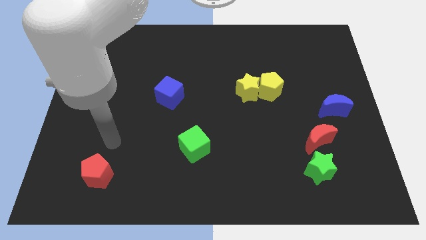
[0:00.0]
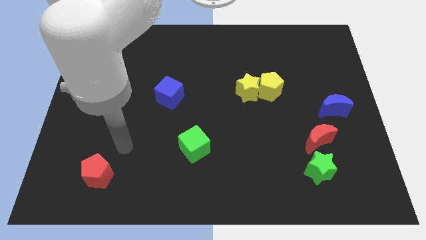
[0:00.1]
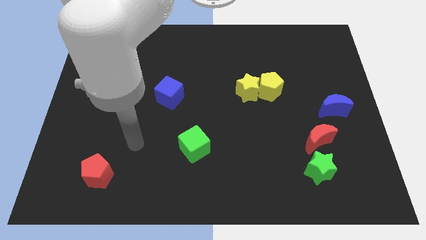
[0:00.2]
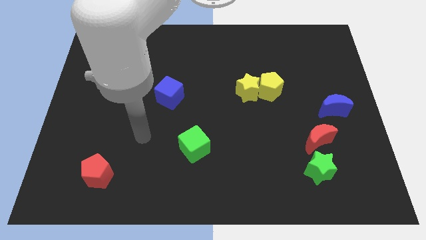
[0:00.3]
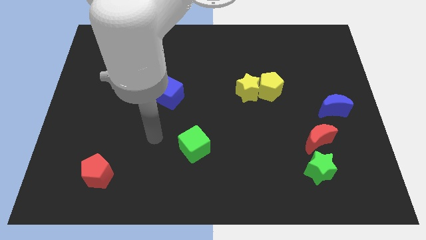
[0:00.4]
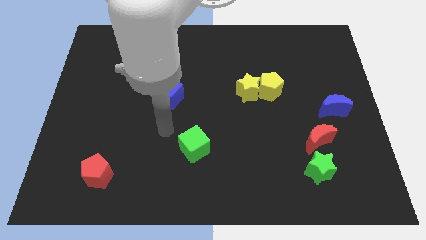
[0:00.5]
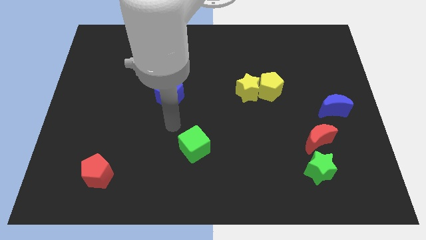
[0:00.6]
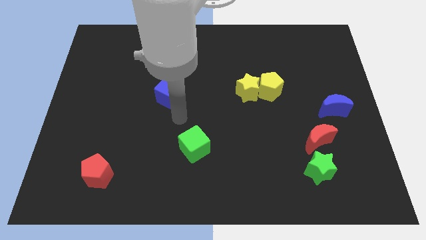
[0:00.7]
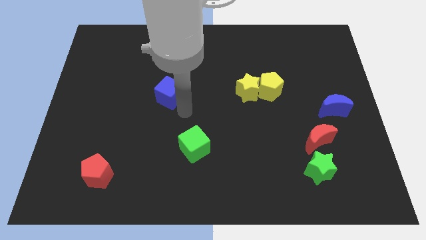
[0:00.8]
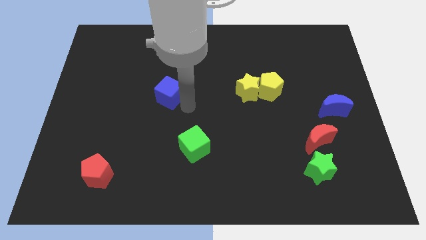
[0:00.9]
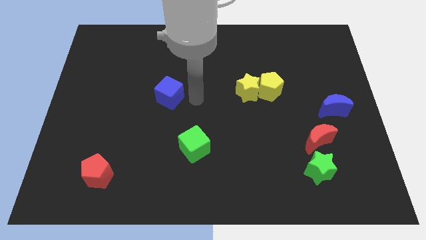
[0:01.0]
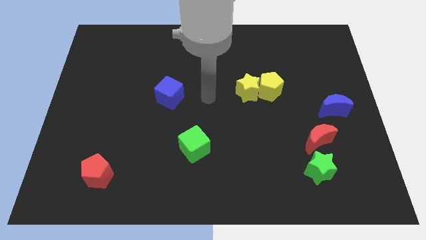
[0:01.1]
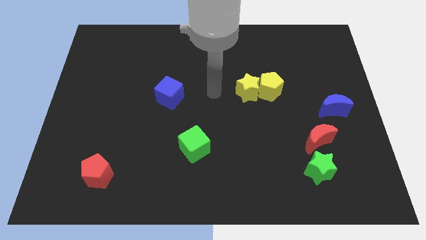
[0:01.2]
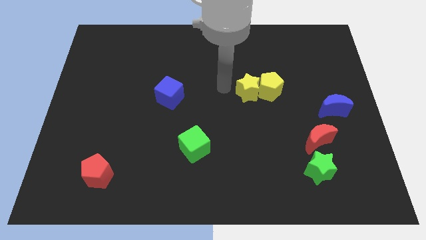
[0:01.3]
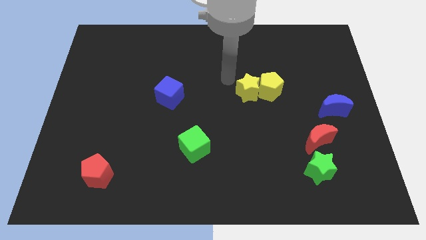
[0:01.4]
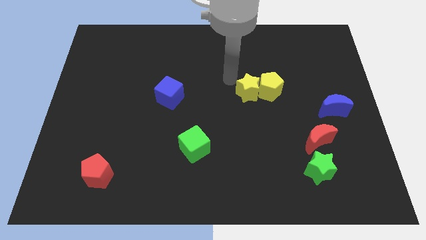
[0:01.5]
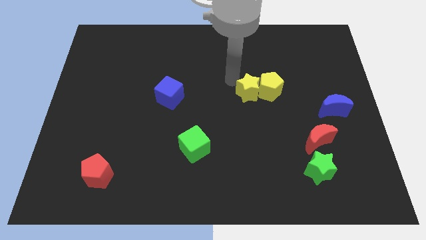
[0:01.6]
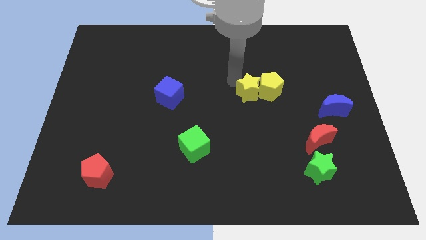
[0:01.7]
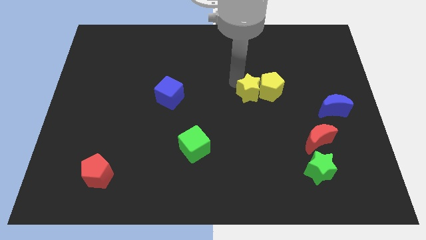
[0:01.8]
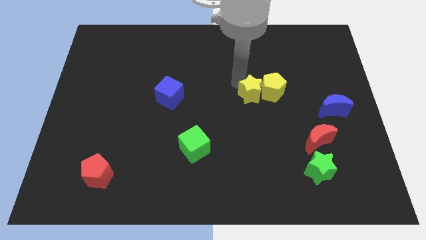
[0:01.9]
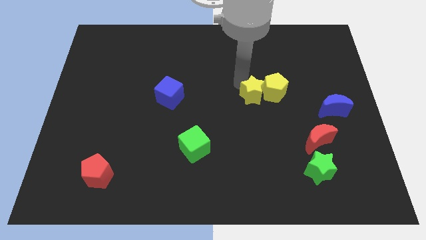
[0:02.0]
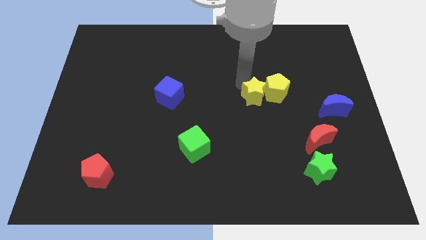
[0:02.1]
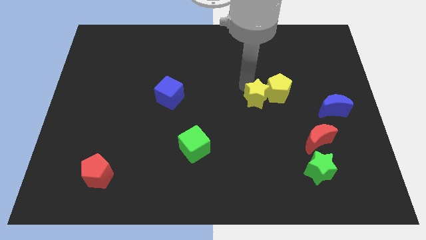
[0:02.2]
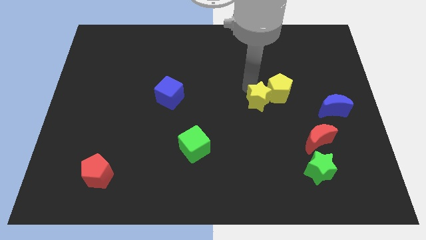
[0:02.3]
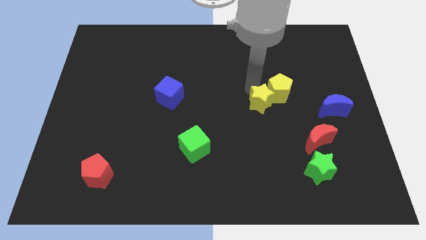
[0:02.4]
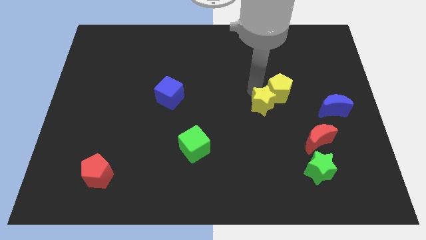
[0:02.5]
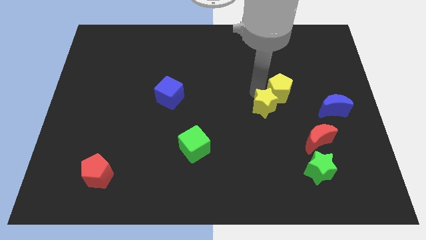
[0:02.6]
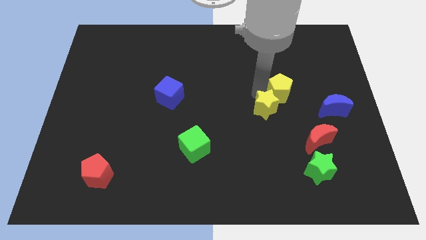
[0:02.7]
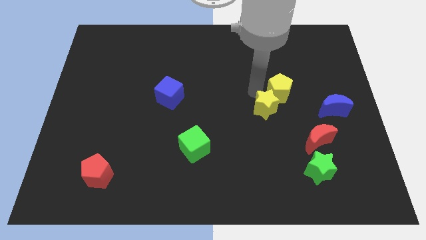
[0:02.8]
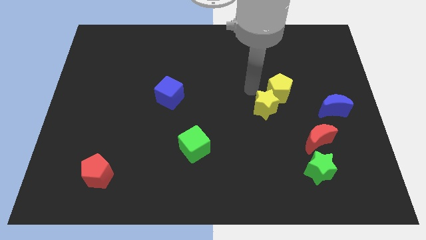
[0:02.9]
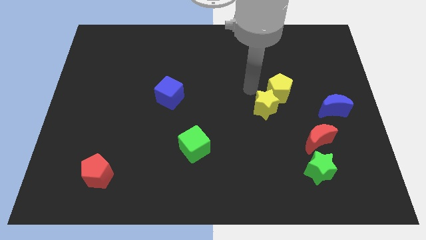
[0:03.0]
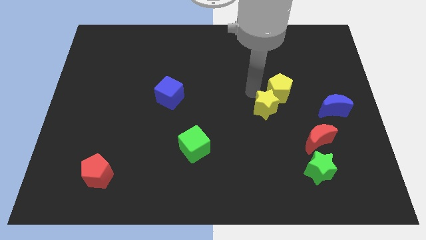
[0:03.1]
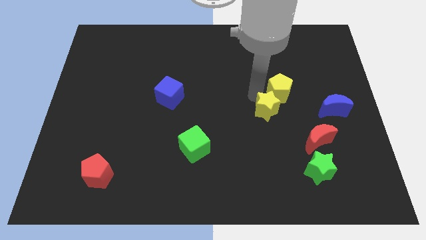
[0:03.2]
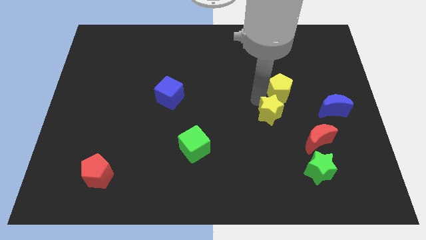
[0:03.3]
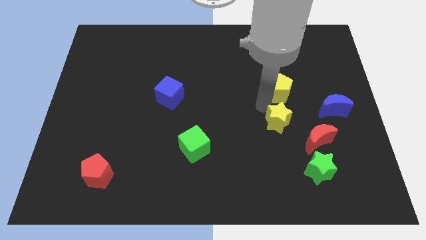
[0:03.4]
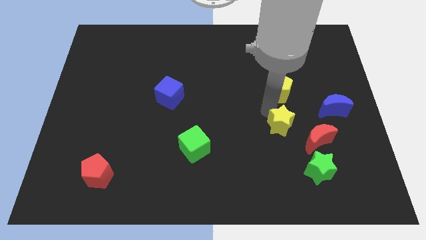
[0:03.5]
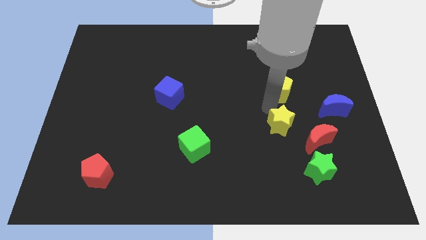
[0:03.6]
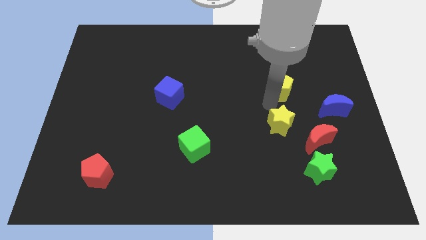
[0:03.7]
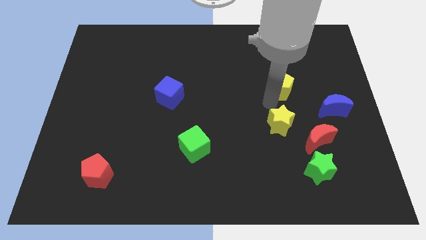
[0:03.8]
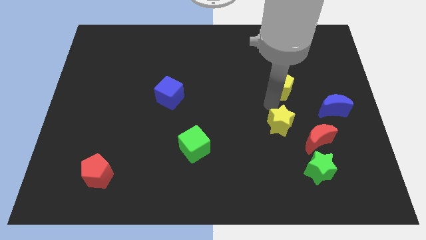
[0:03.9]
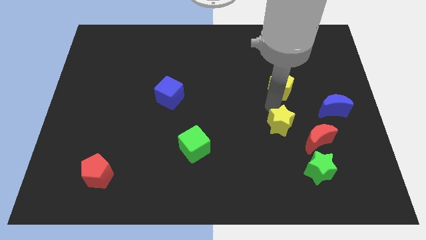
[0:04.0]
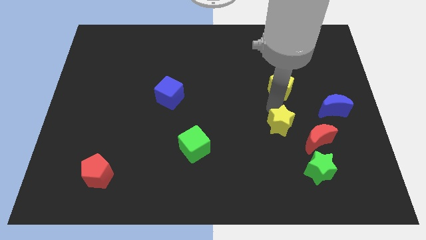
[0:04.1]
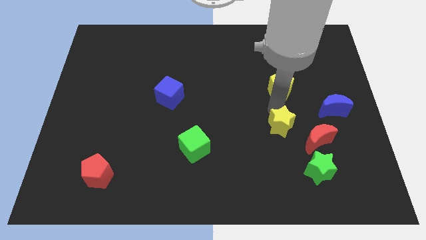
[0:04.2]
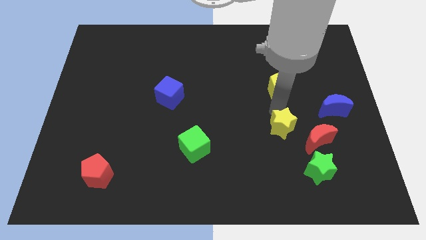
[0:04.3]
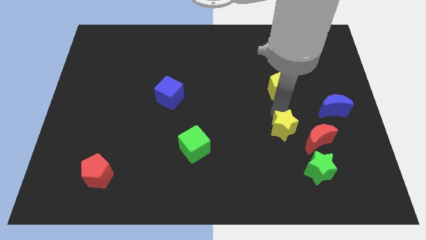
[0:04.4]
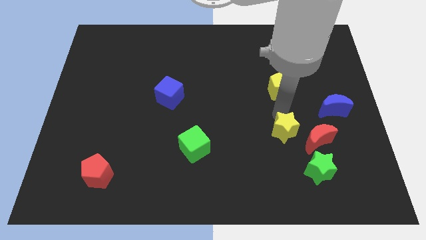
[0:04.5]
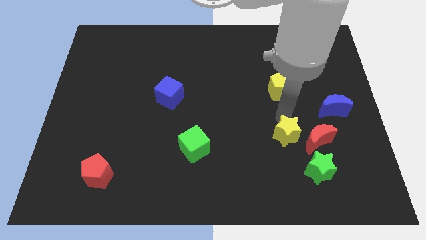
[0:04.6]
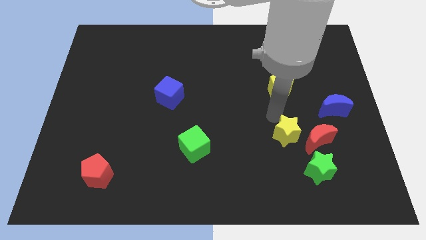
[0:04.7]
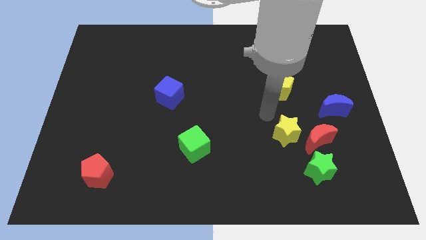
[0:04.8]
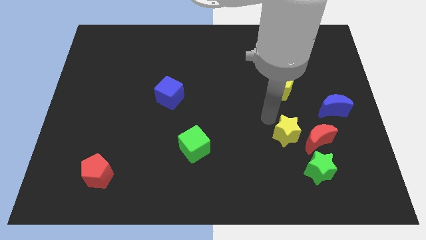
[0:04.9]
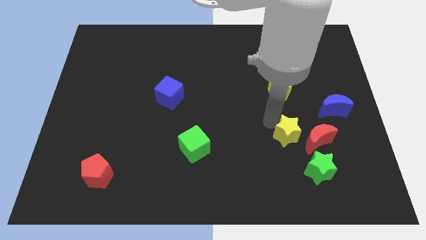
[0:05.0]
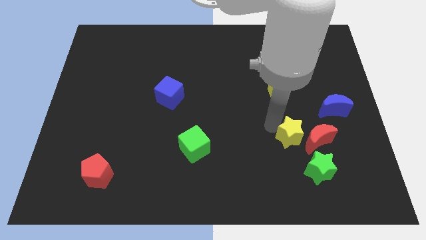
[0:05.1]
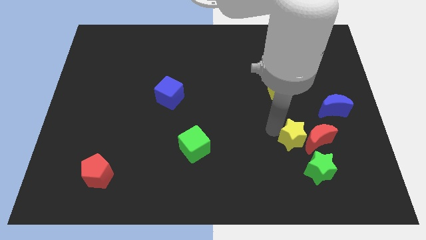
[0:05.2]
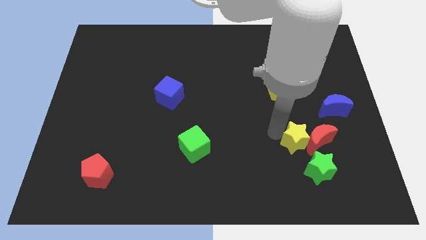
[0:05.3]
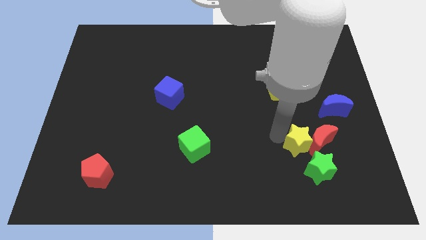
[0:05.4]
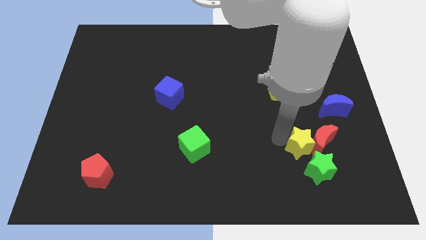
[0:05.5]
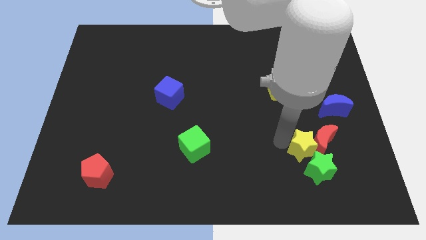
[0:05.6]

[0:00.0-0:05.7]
put the yellow star next to the green star

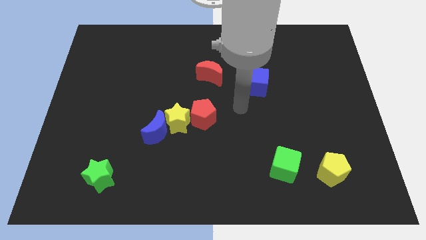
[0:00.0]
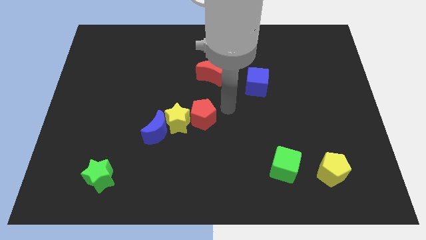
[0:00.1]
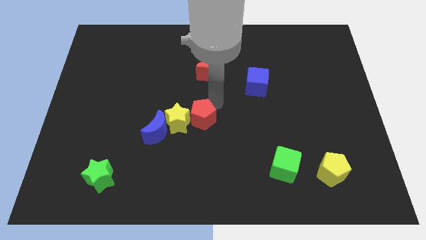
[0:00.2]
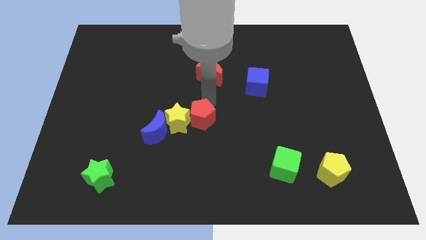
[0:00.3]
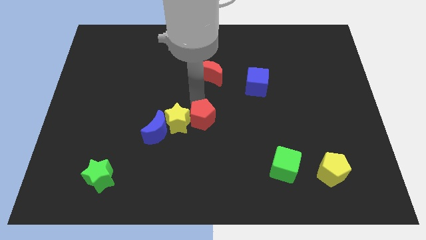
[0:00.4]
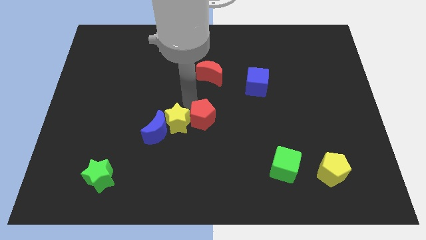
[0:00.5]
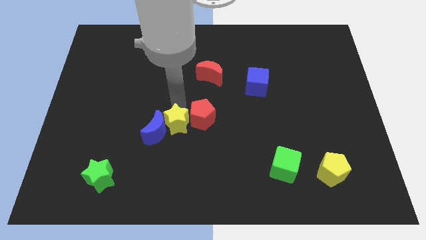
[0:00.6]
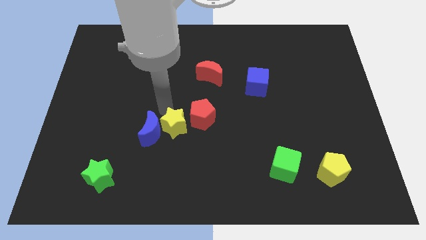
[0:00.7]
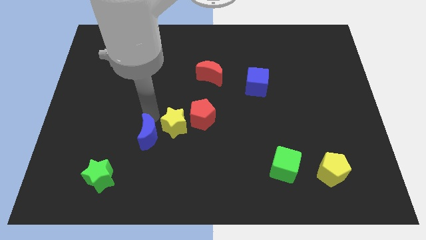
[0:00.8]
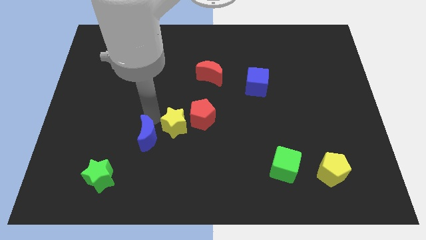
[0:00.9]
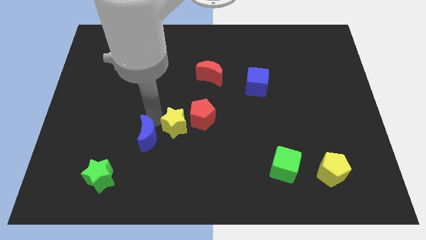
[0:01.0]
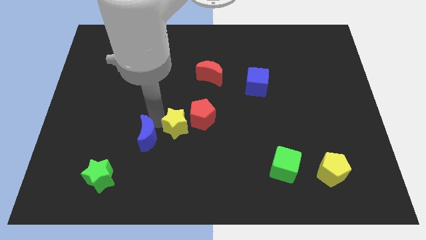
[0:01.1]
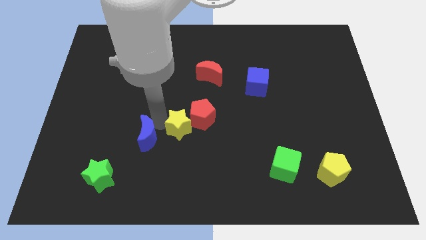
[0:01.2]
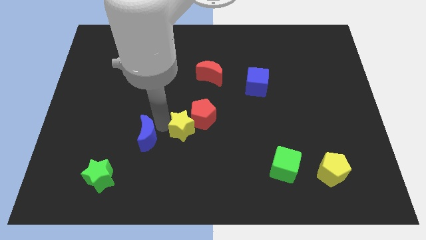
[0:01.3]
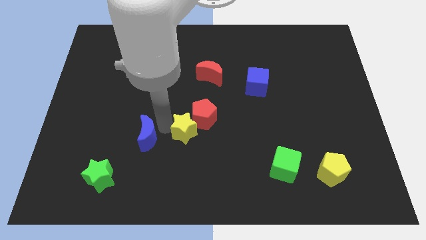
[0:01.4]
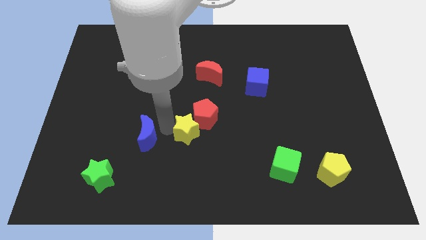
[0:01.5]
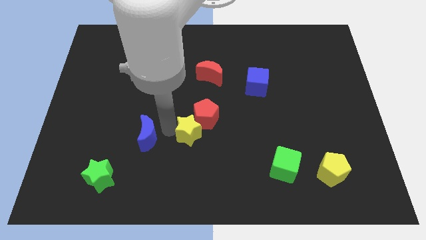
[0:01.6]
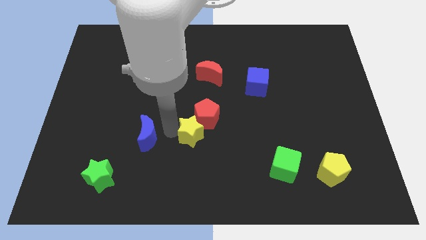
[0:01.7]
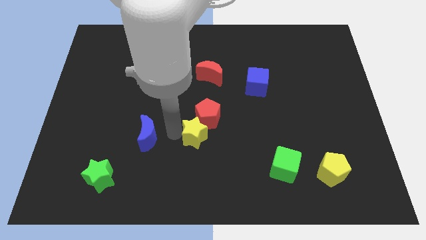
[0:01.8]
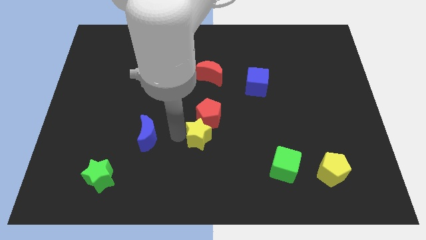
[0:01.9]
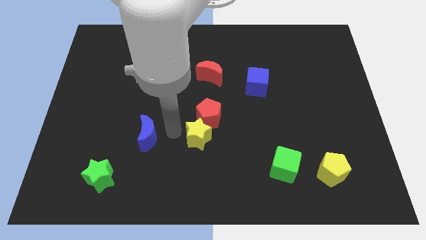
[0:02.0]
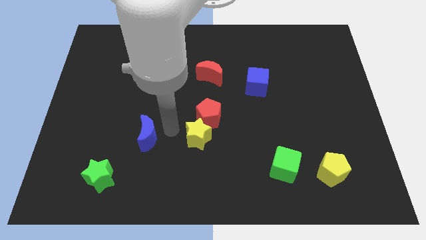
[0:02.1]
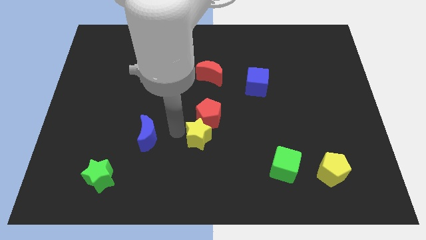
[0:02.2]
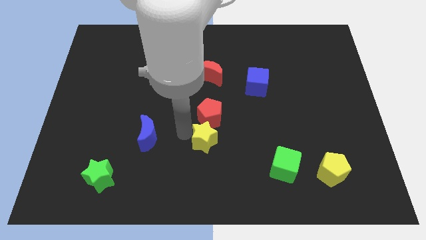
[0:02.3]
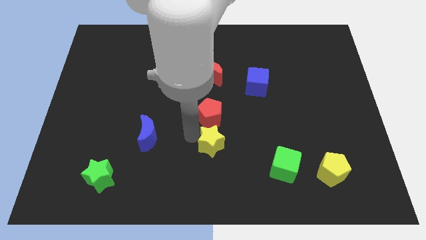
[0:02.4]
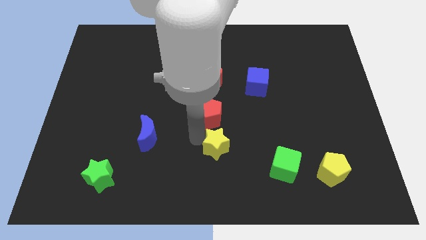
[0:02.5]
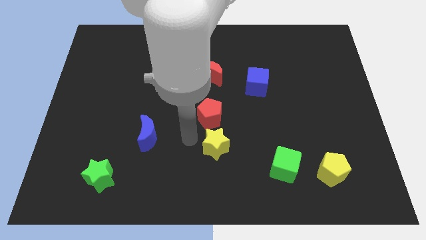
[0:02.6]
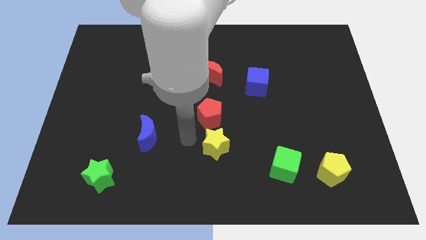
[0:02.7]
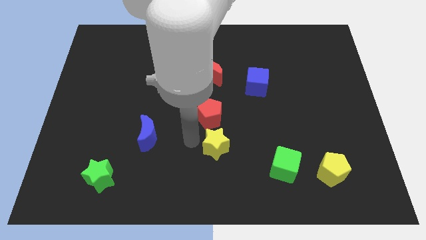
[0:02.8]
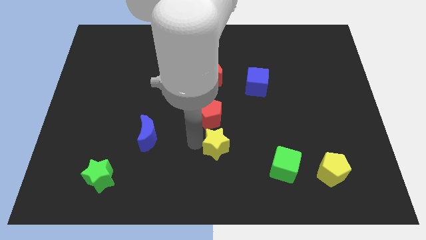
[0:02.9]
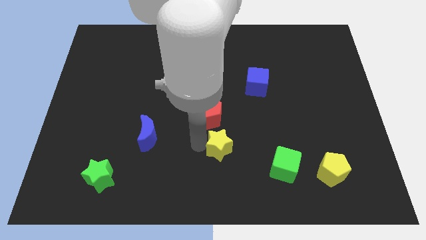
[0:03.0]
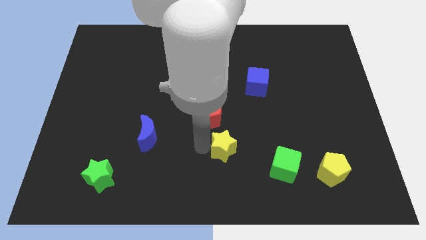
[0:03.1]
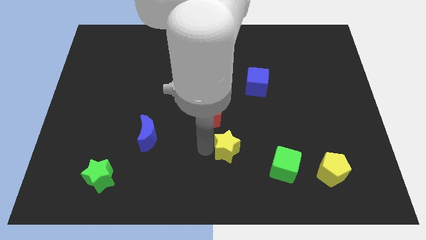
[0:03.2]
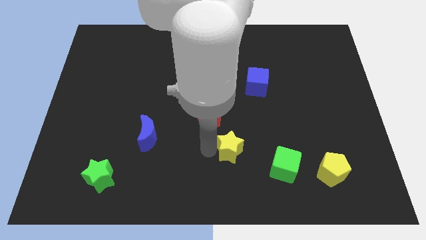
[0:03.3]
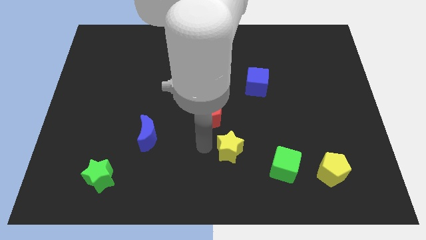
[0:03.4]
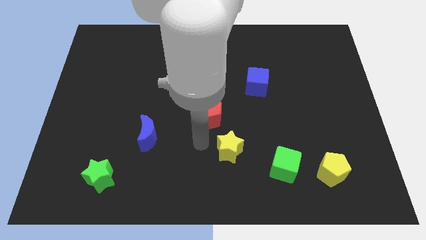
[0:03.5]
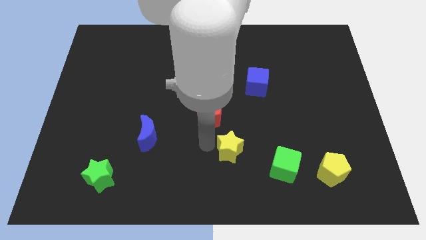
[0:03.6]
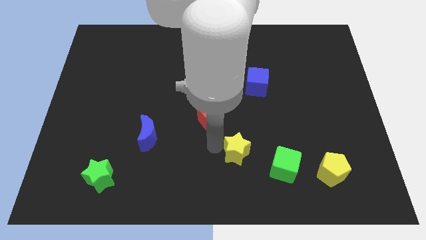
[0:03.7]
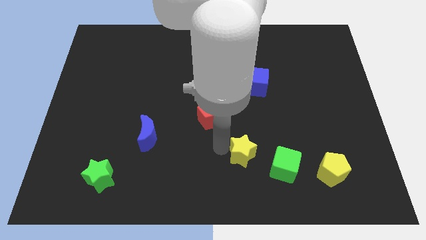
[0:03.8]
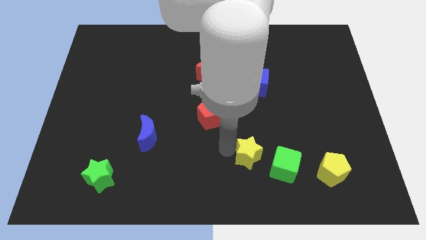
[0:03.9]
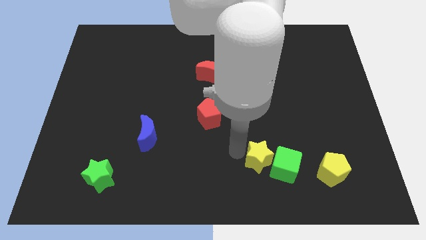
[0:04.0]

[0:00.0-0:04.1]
slide the yellow star towards the green cube
